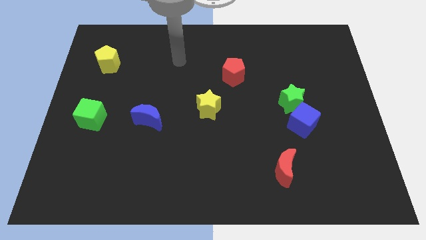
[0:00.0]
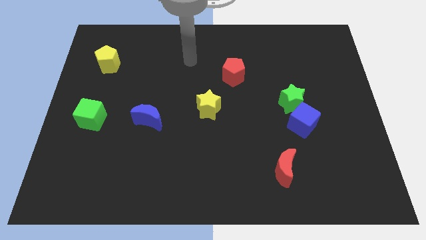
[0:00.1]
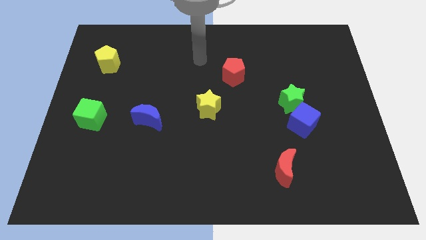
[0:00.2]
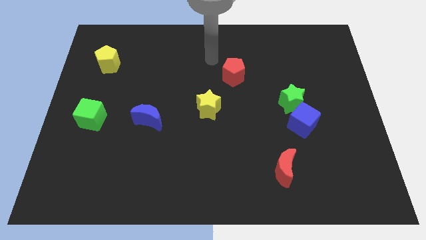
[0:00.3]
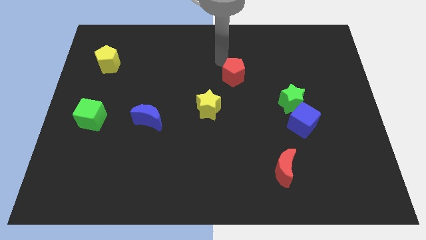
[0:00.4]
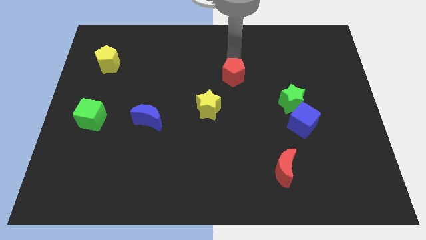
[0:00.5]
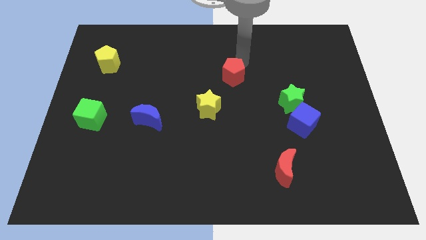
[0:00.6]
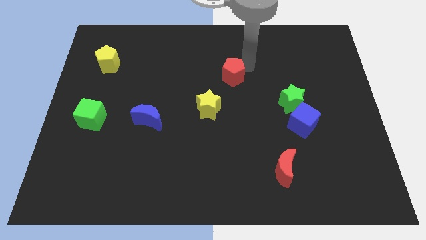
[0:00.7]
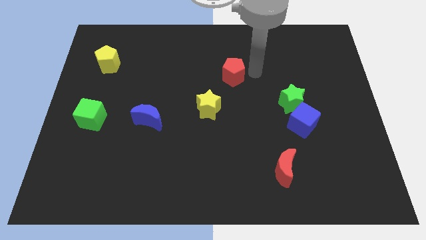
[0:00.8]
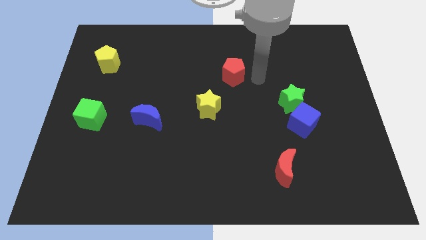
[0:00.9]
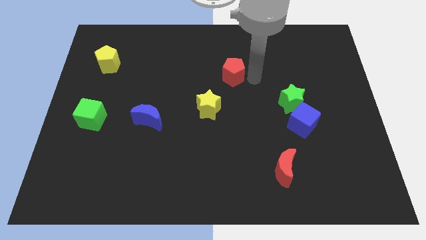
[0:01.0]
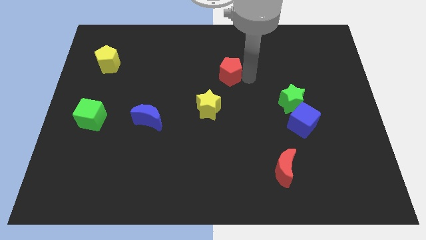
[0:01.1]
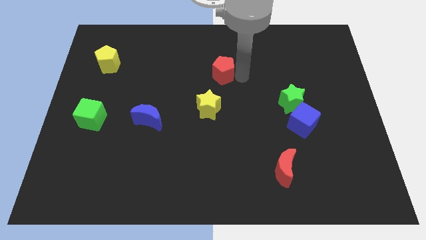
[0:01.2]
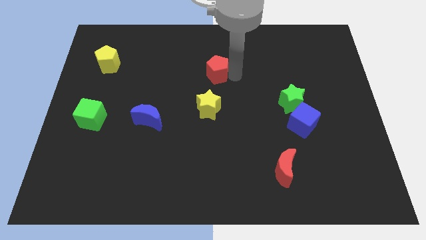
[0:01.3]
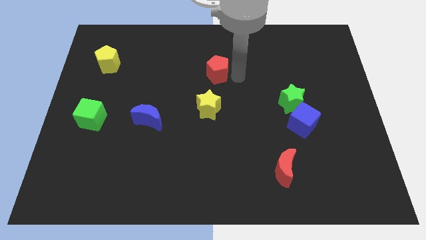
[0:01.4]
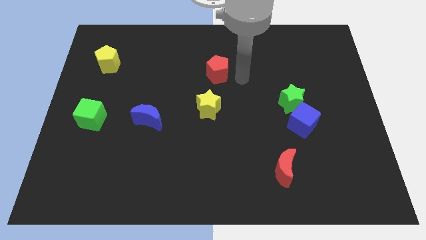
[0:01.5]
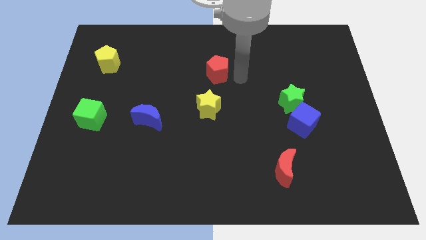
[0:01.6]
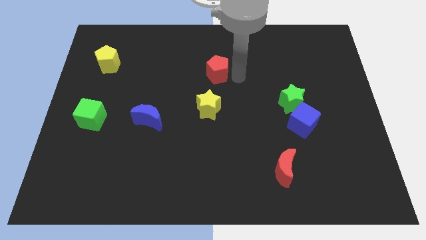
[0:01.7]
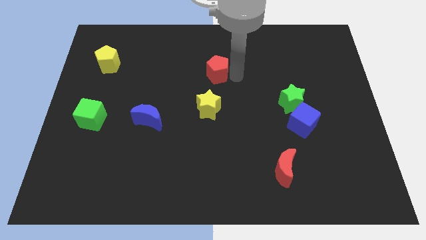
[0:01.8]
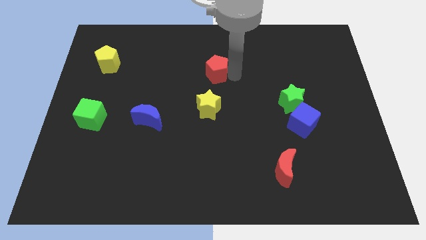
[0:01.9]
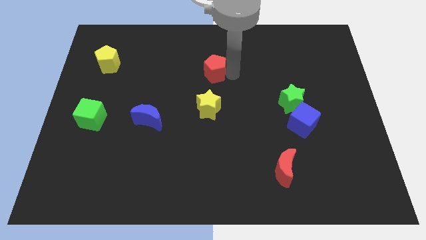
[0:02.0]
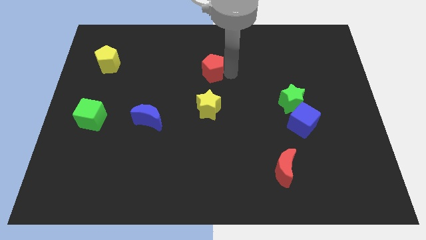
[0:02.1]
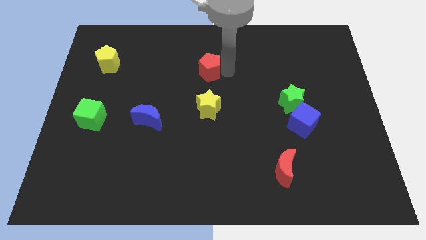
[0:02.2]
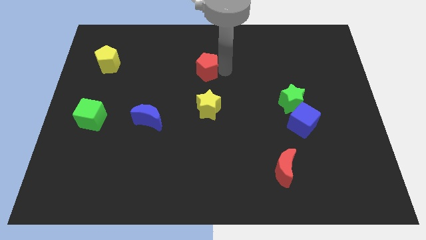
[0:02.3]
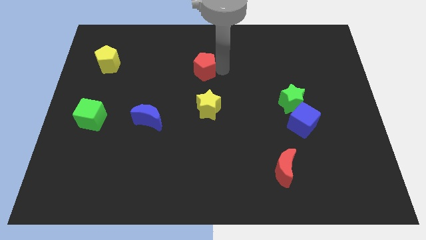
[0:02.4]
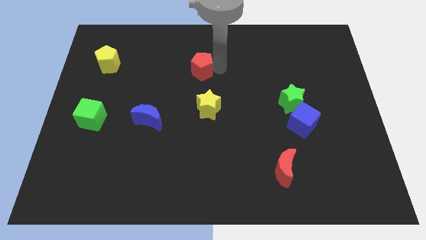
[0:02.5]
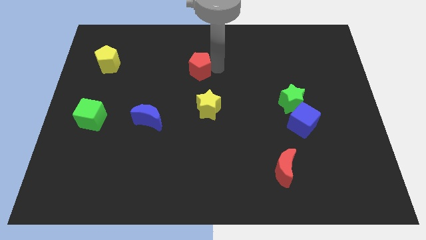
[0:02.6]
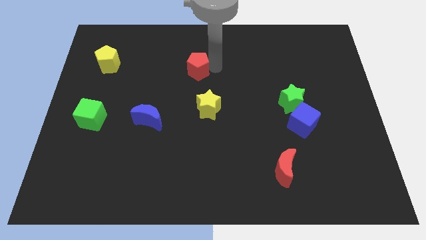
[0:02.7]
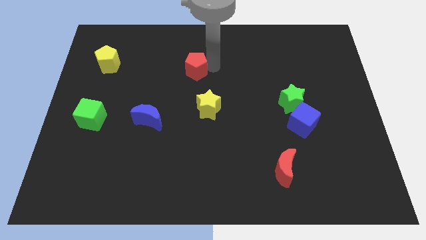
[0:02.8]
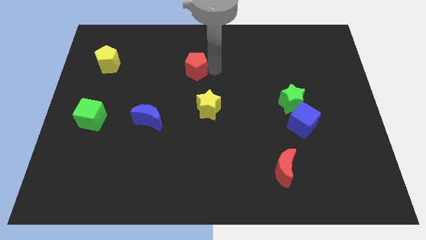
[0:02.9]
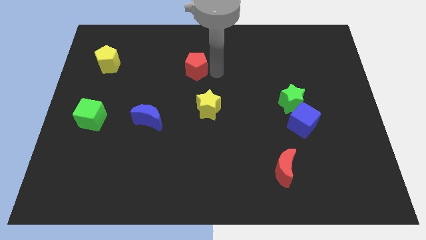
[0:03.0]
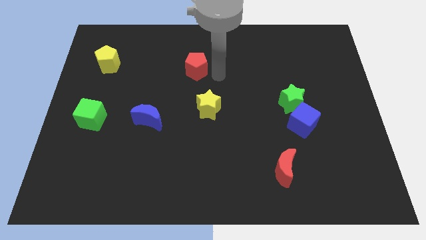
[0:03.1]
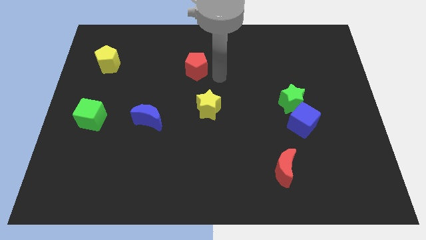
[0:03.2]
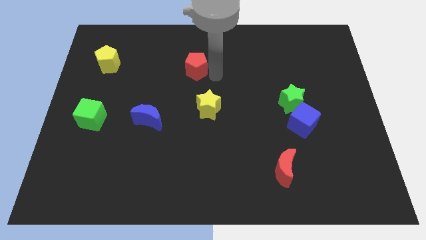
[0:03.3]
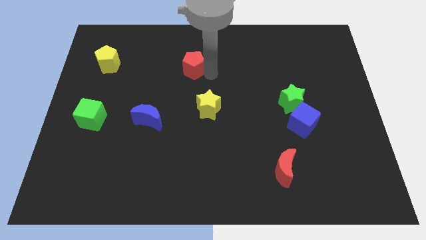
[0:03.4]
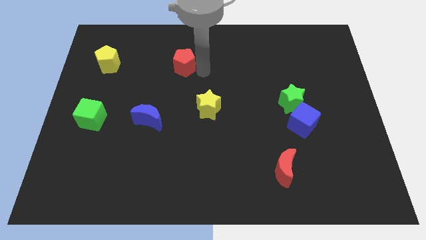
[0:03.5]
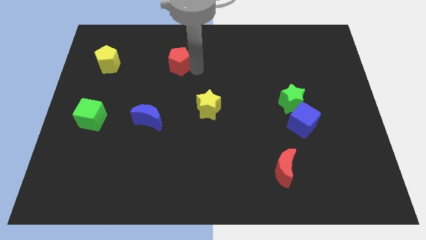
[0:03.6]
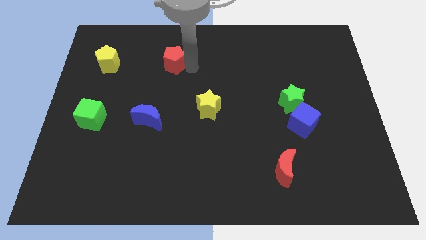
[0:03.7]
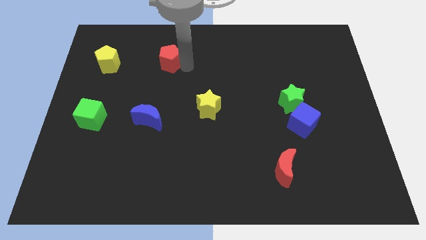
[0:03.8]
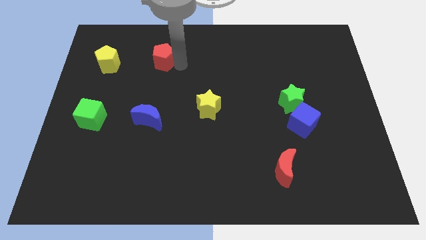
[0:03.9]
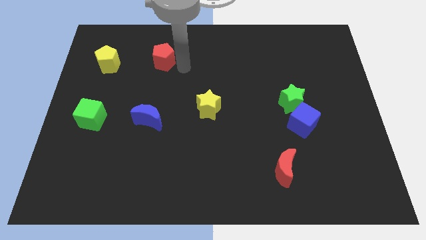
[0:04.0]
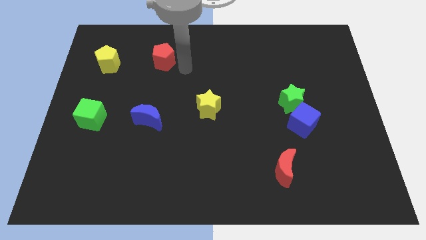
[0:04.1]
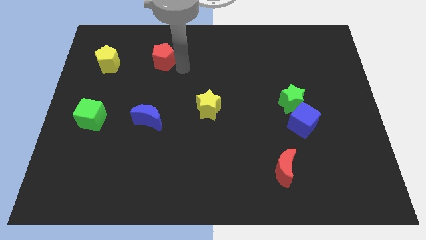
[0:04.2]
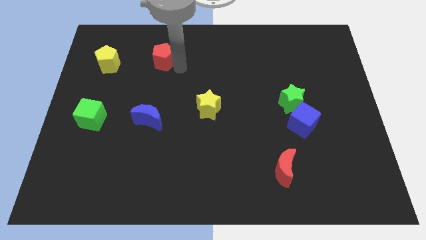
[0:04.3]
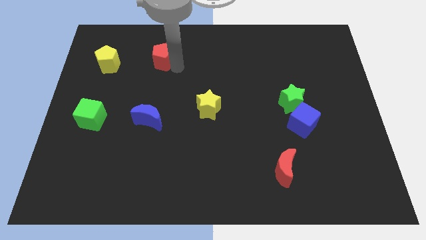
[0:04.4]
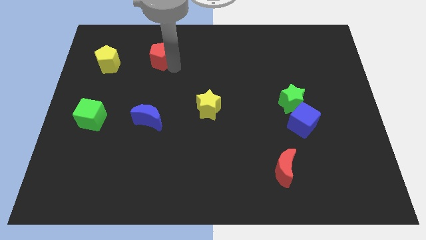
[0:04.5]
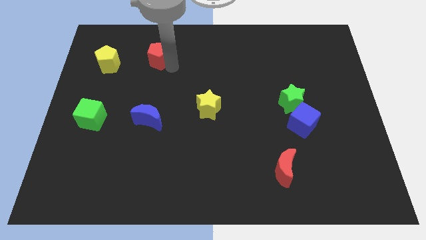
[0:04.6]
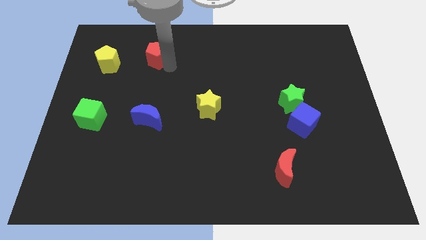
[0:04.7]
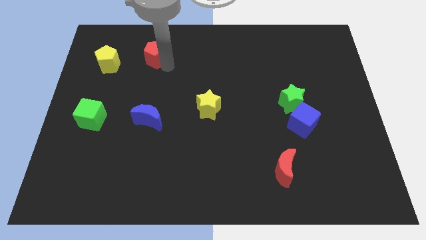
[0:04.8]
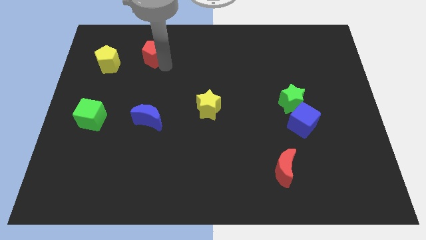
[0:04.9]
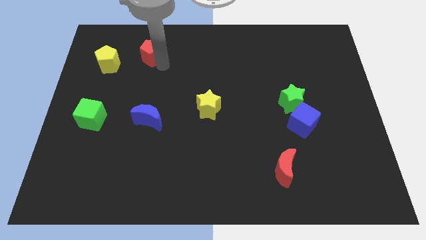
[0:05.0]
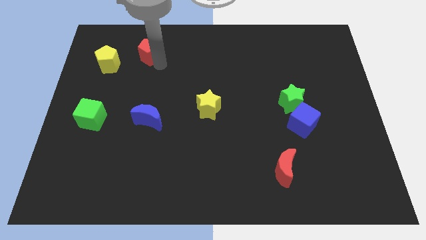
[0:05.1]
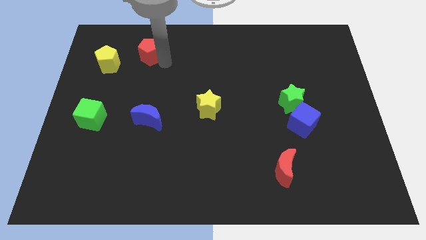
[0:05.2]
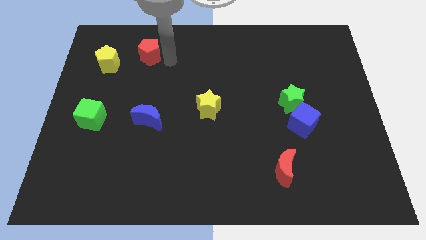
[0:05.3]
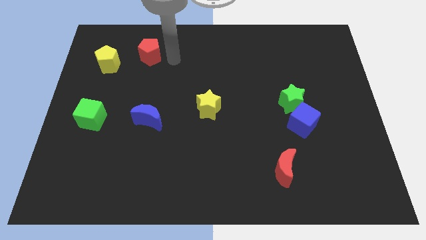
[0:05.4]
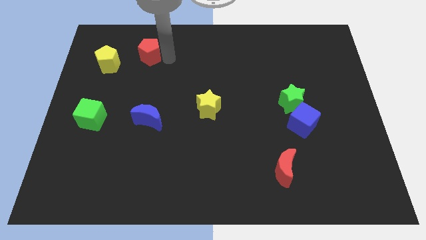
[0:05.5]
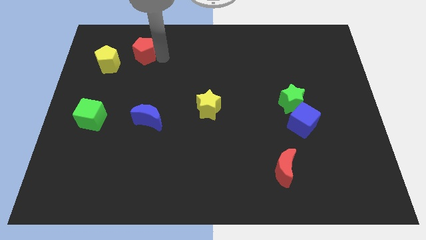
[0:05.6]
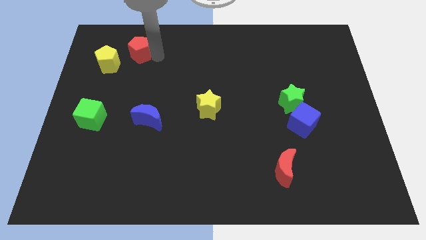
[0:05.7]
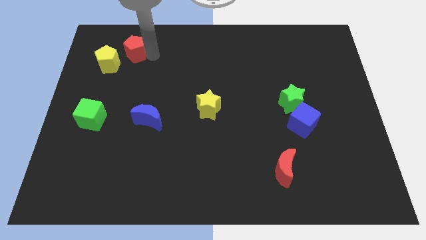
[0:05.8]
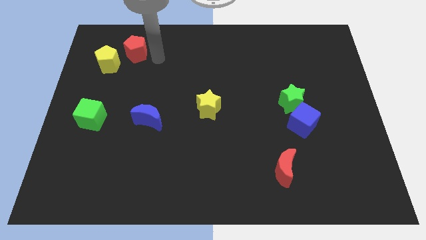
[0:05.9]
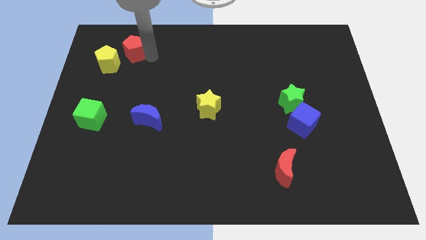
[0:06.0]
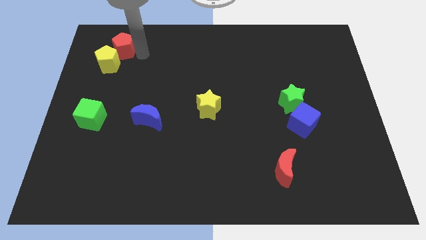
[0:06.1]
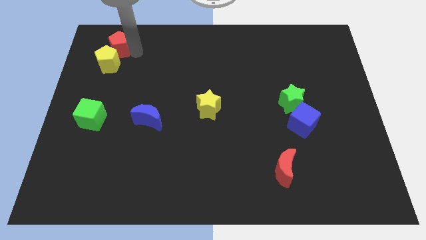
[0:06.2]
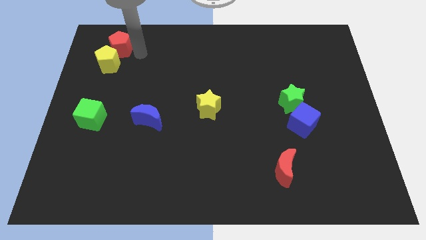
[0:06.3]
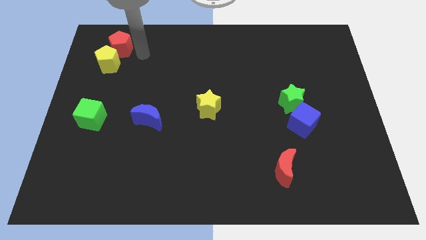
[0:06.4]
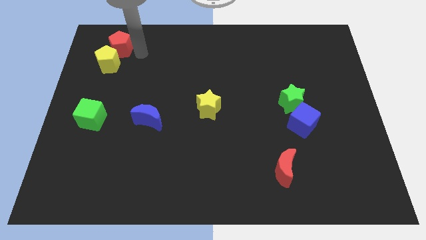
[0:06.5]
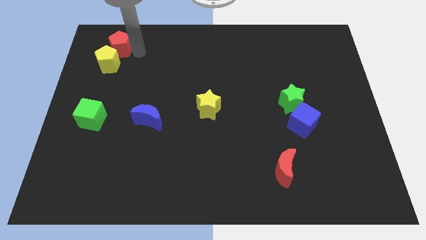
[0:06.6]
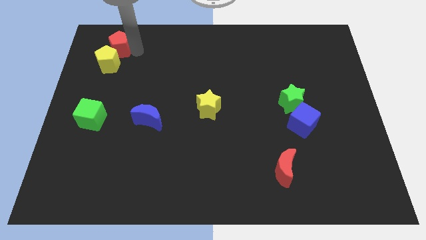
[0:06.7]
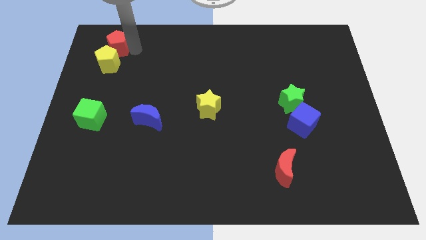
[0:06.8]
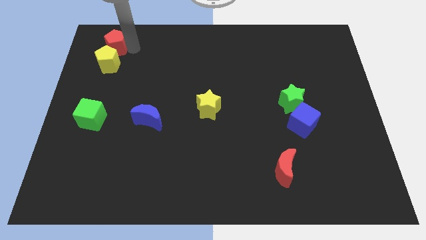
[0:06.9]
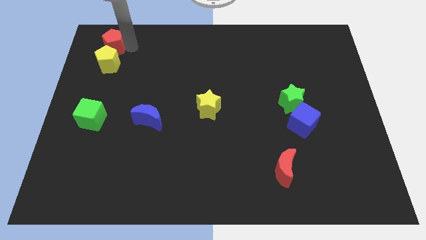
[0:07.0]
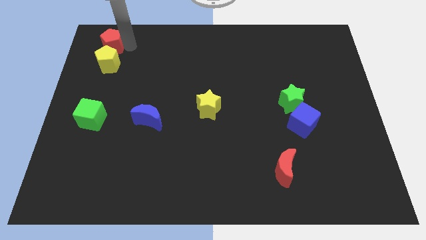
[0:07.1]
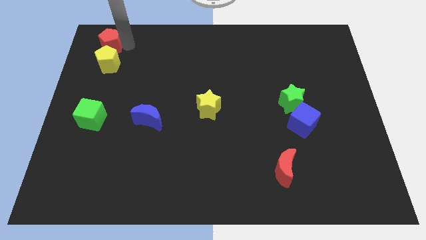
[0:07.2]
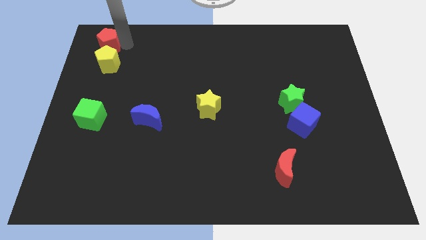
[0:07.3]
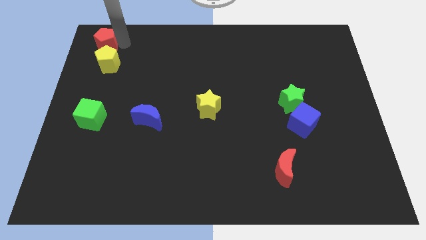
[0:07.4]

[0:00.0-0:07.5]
push the red pentagon to the top left corner
